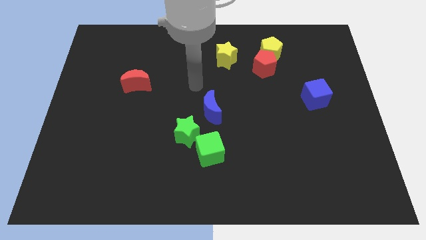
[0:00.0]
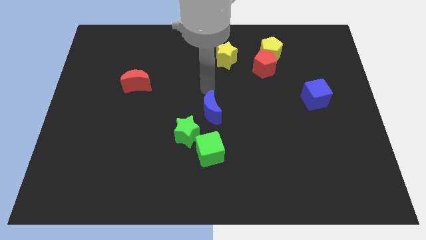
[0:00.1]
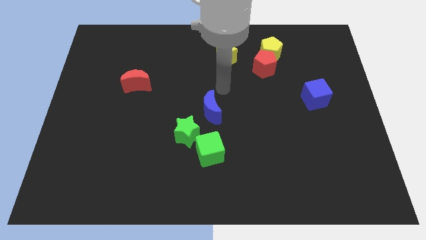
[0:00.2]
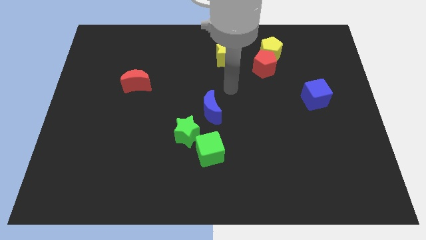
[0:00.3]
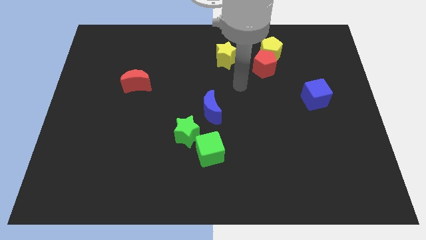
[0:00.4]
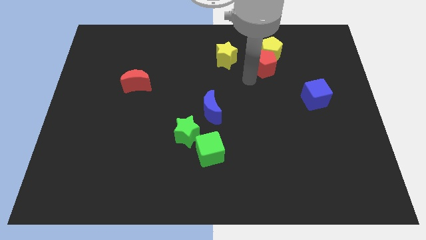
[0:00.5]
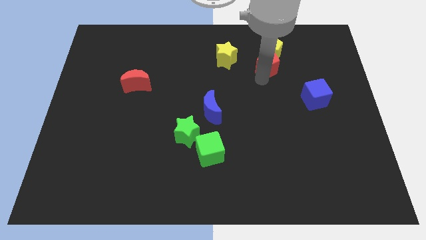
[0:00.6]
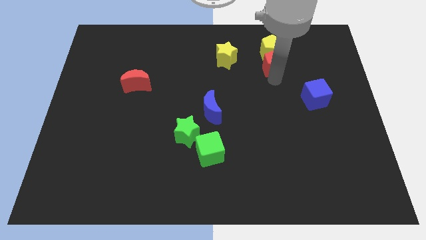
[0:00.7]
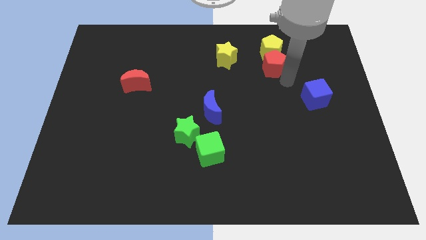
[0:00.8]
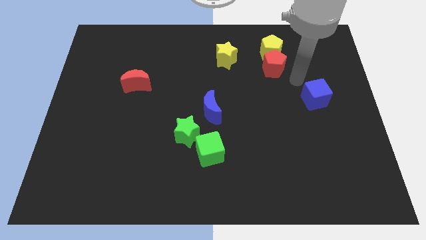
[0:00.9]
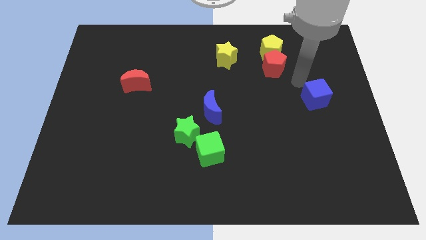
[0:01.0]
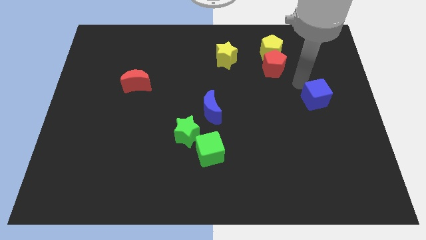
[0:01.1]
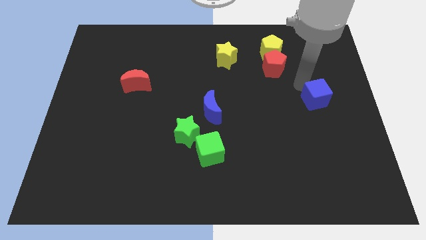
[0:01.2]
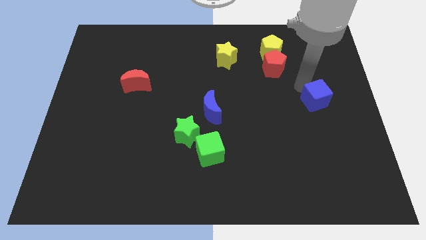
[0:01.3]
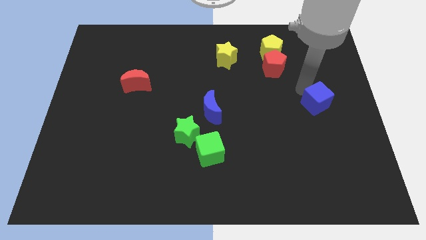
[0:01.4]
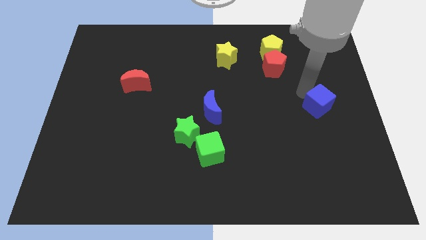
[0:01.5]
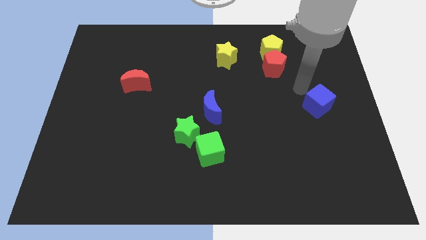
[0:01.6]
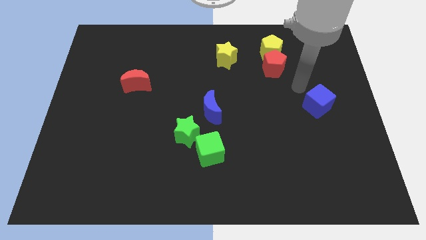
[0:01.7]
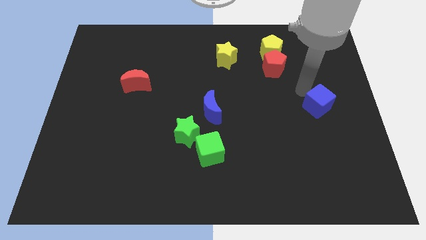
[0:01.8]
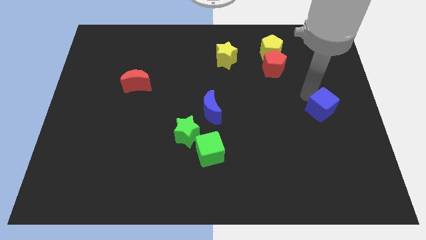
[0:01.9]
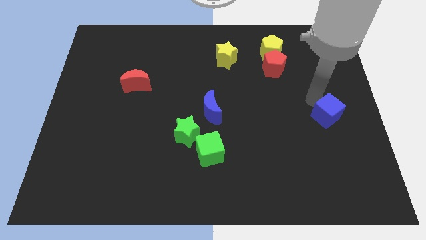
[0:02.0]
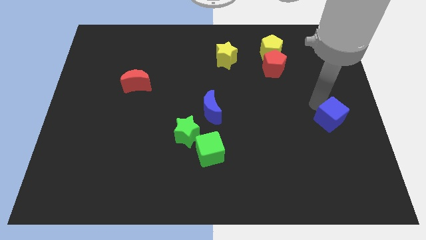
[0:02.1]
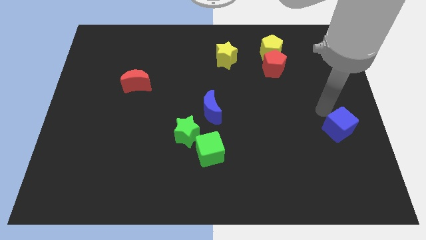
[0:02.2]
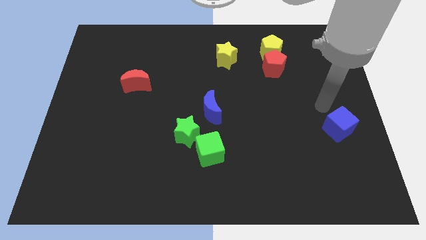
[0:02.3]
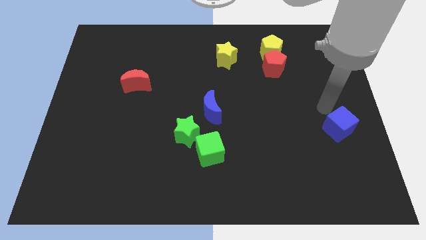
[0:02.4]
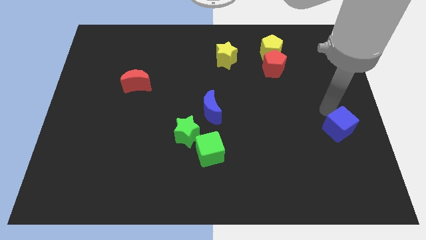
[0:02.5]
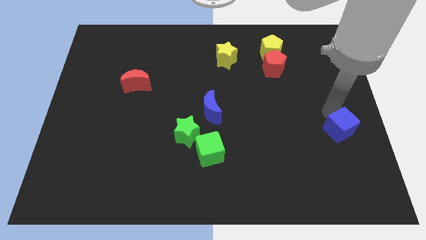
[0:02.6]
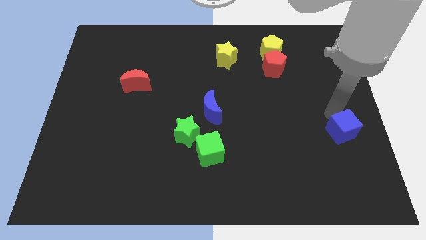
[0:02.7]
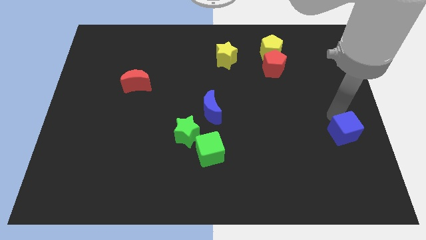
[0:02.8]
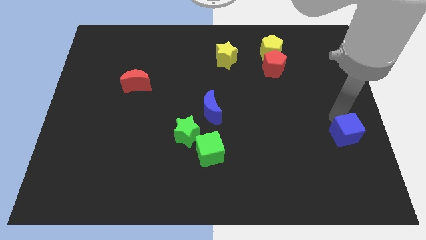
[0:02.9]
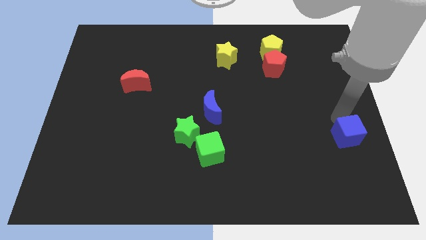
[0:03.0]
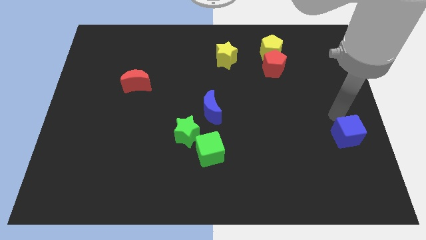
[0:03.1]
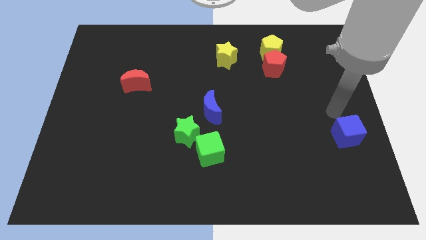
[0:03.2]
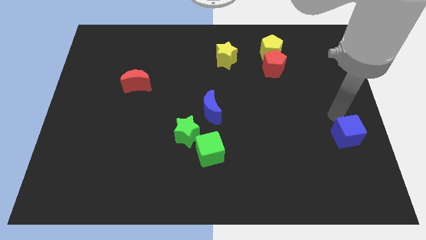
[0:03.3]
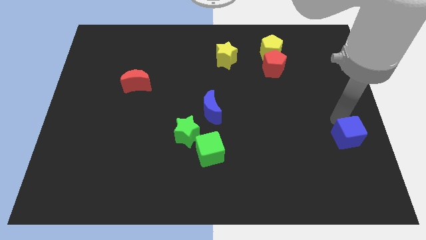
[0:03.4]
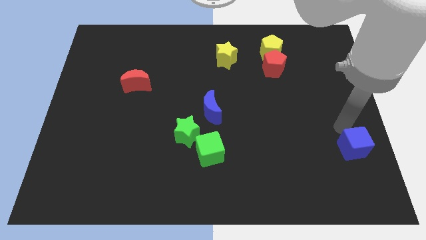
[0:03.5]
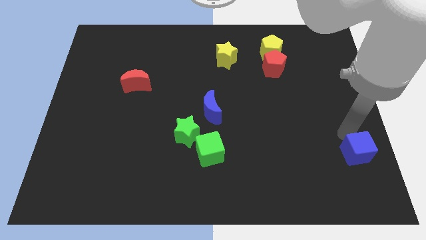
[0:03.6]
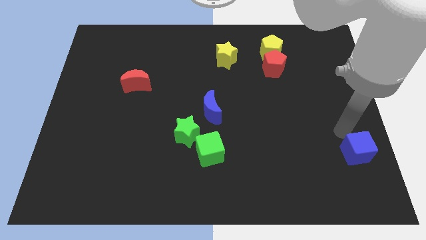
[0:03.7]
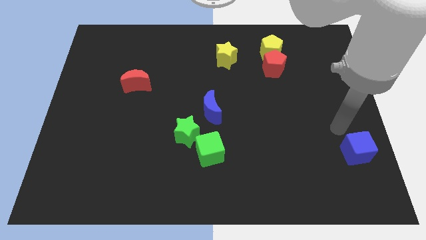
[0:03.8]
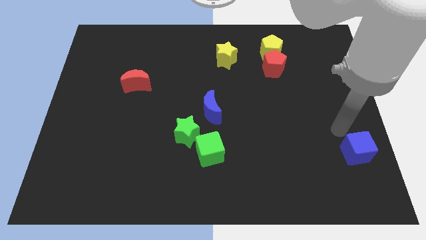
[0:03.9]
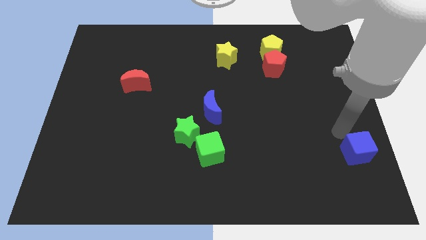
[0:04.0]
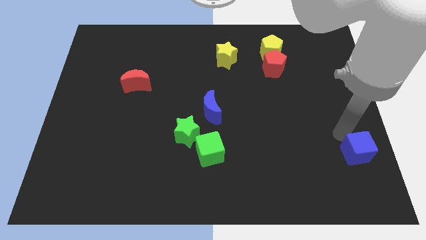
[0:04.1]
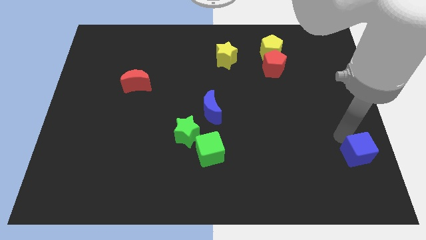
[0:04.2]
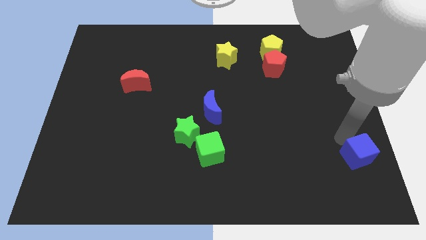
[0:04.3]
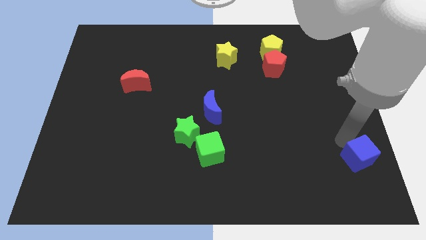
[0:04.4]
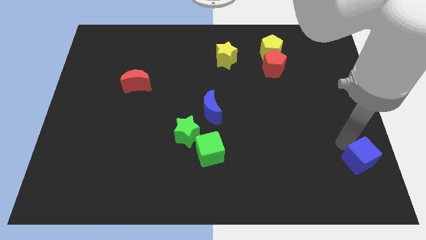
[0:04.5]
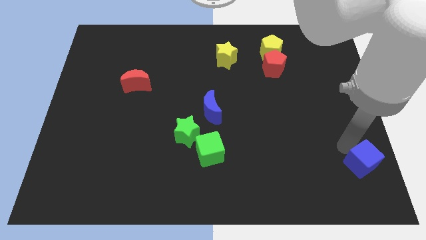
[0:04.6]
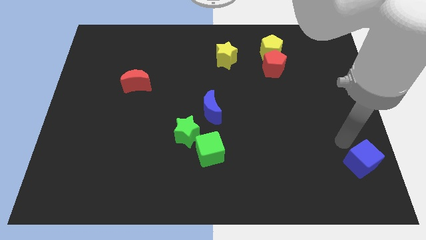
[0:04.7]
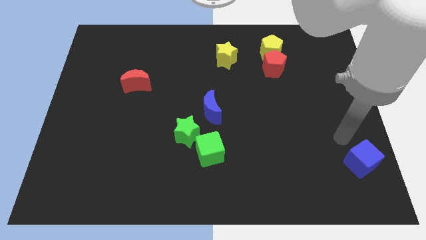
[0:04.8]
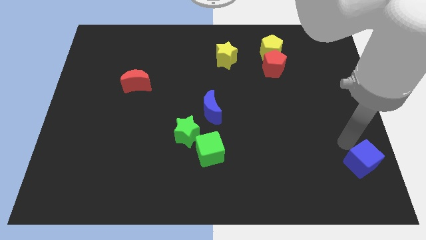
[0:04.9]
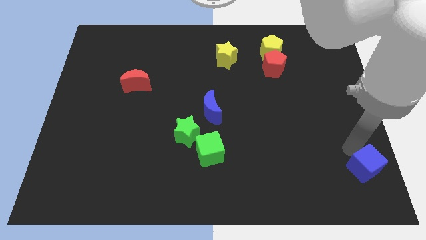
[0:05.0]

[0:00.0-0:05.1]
move the blue cube to the bottom right

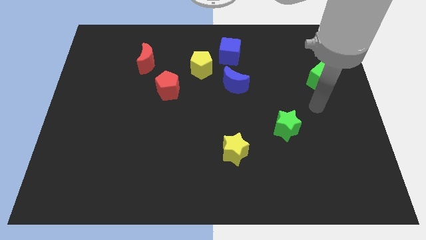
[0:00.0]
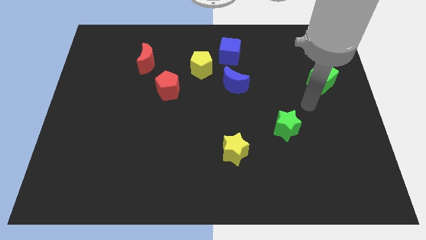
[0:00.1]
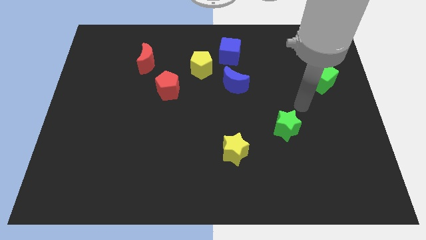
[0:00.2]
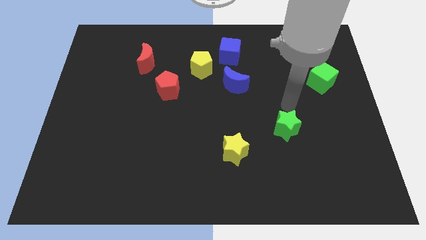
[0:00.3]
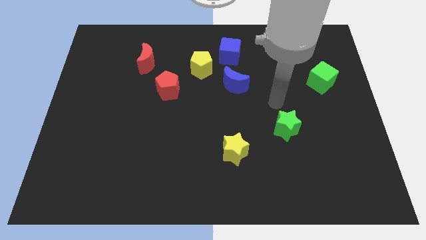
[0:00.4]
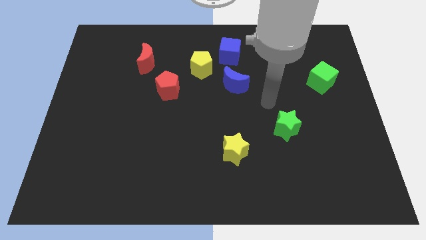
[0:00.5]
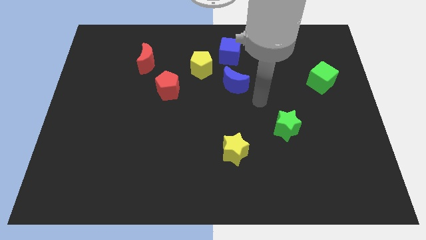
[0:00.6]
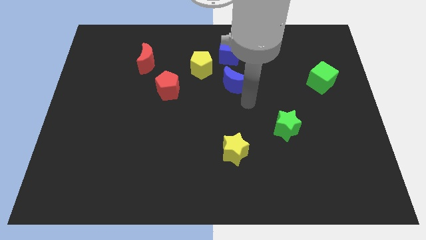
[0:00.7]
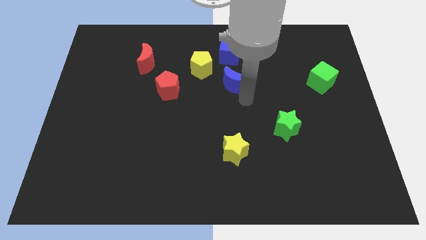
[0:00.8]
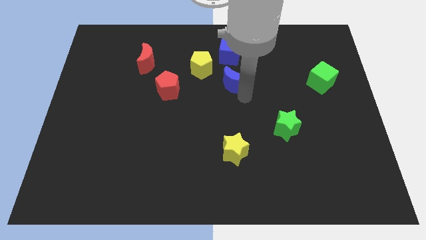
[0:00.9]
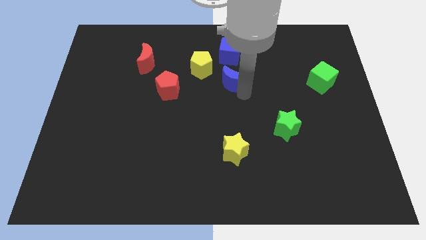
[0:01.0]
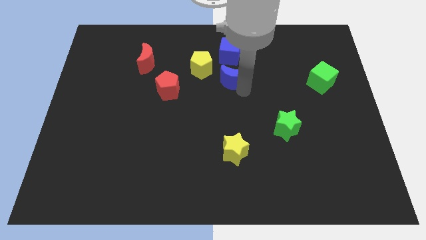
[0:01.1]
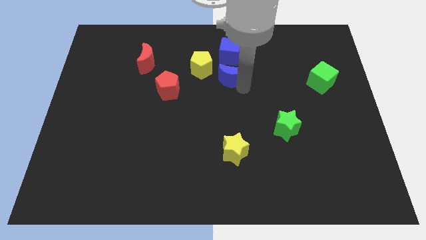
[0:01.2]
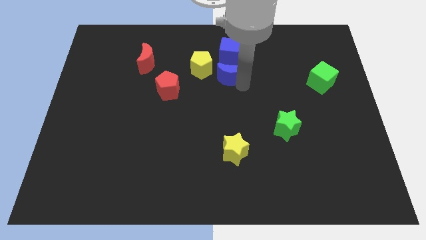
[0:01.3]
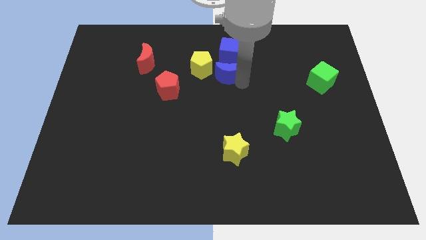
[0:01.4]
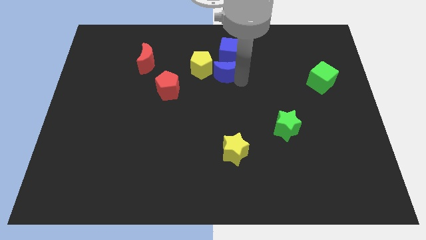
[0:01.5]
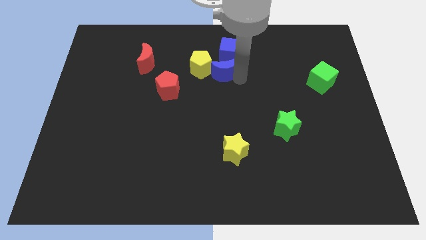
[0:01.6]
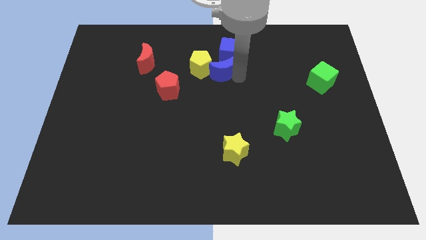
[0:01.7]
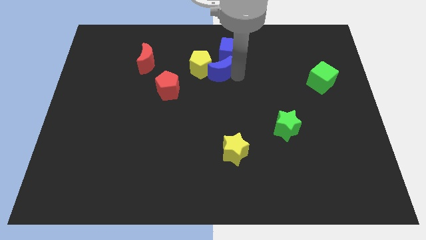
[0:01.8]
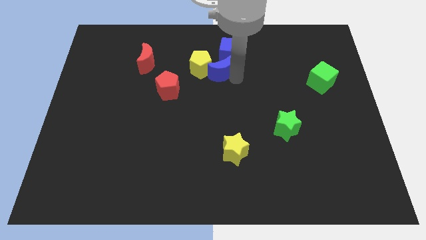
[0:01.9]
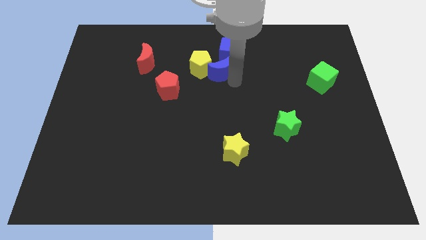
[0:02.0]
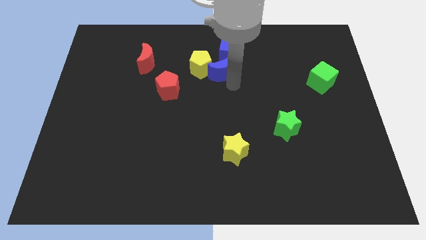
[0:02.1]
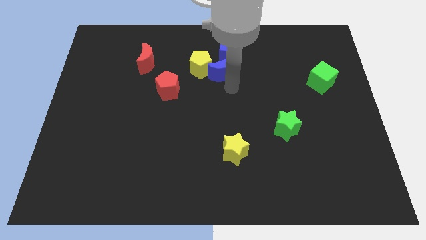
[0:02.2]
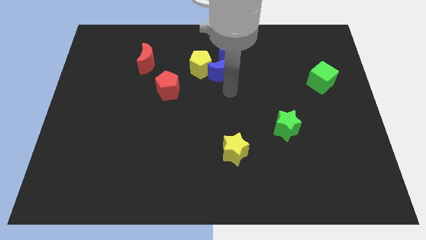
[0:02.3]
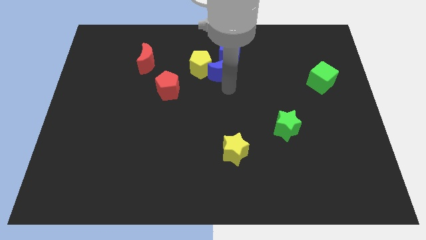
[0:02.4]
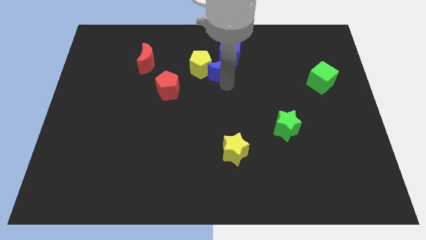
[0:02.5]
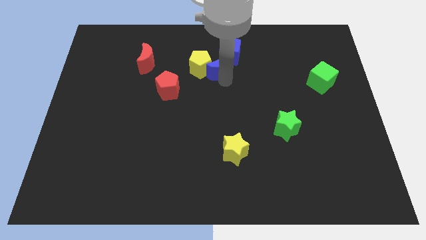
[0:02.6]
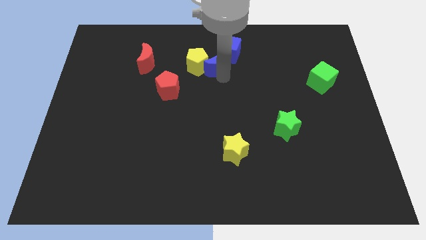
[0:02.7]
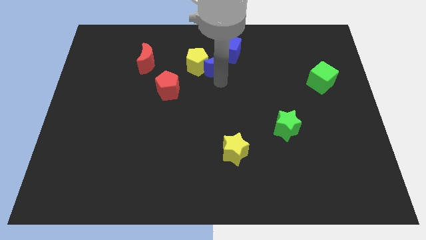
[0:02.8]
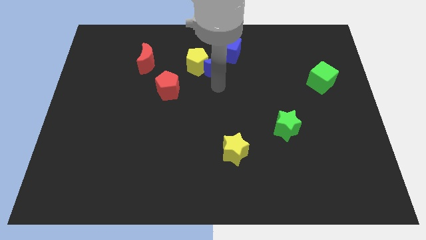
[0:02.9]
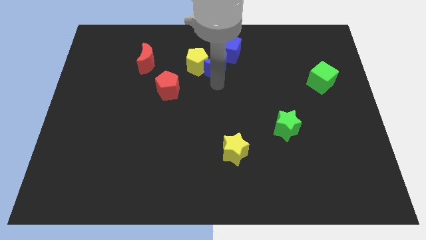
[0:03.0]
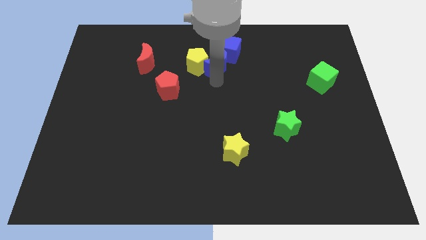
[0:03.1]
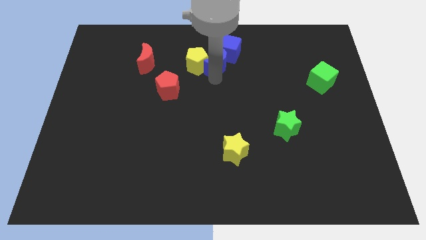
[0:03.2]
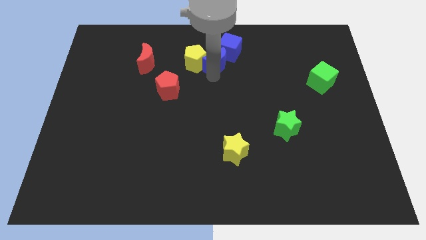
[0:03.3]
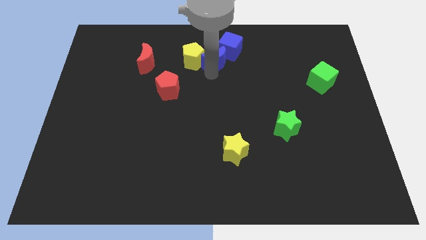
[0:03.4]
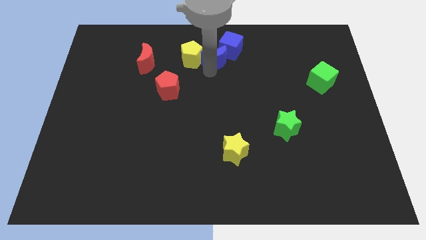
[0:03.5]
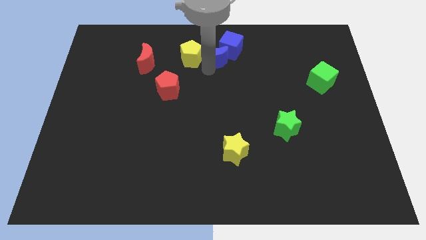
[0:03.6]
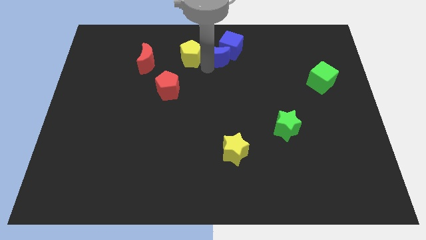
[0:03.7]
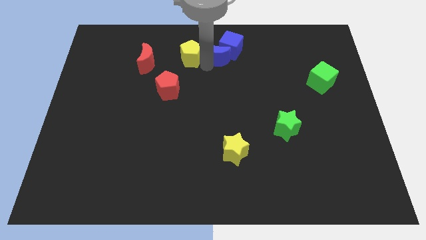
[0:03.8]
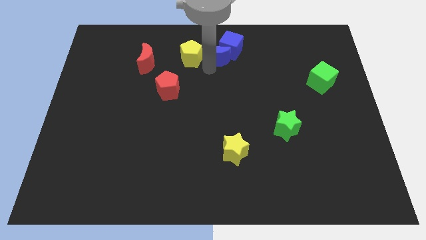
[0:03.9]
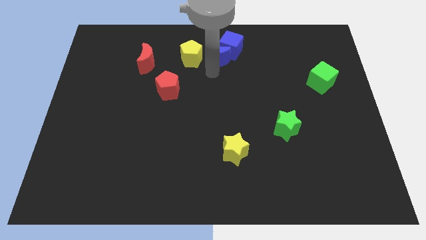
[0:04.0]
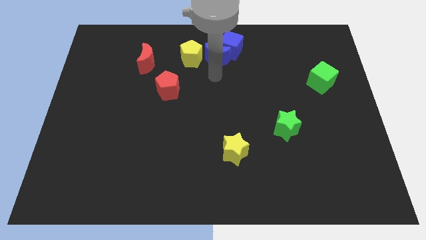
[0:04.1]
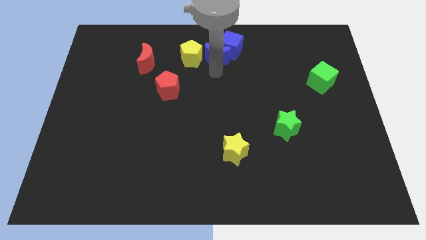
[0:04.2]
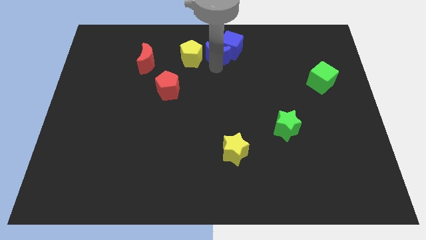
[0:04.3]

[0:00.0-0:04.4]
put the blue moon to the top
